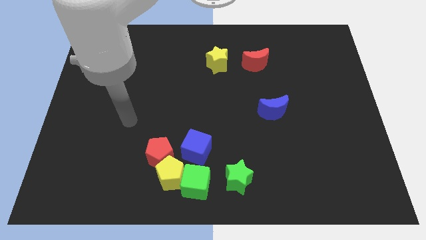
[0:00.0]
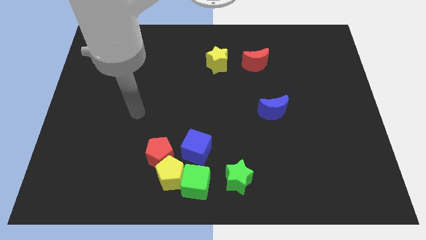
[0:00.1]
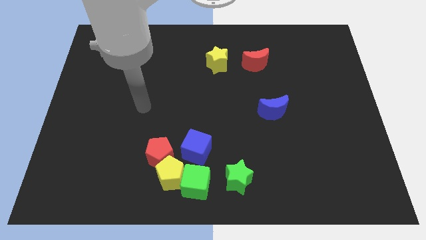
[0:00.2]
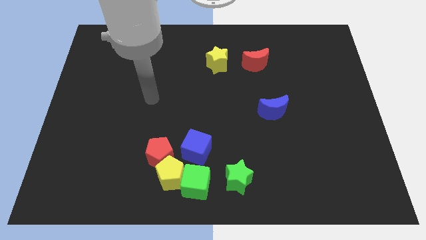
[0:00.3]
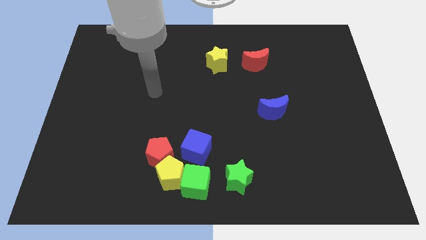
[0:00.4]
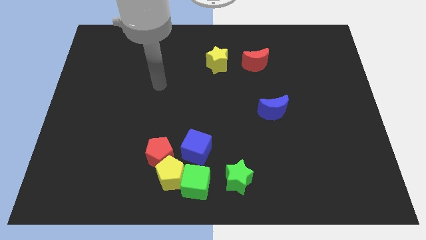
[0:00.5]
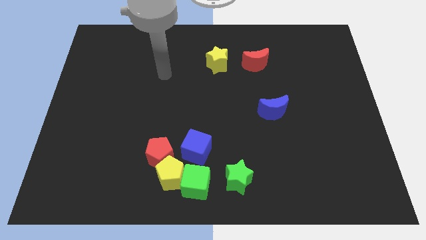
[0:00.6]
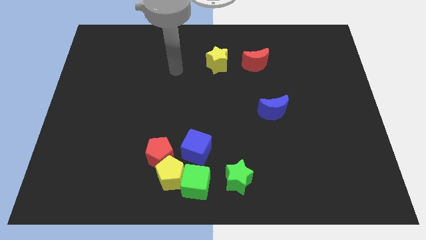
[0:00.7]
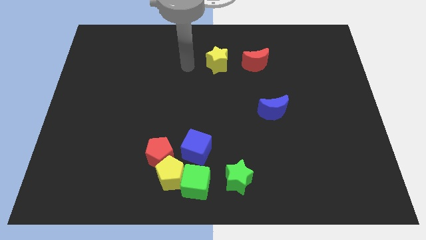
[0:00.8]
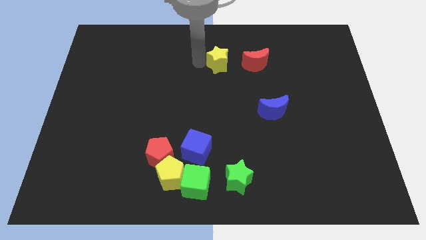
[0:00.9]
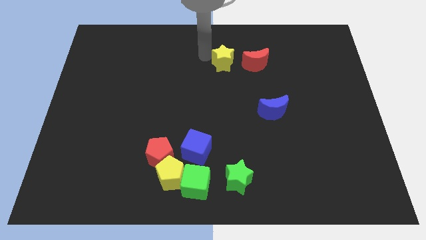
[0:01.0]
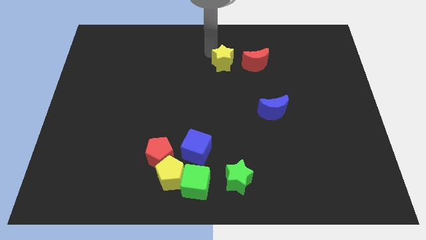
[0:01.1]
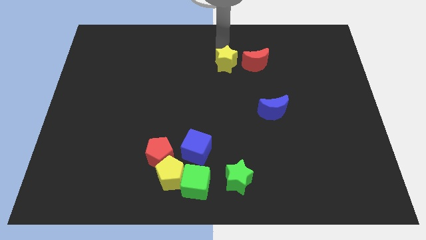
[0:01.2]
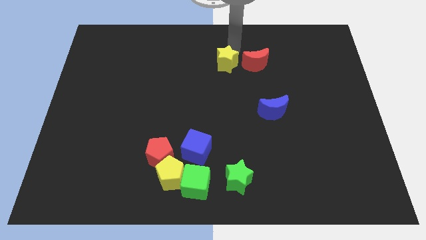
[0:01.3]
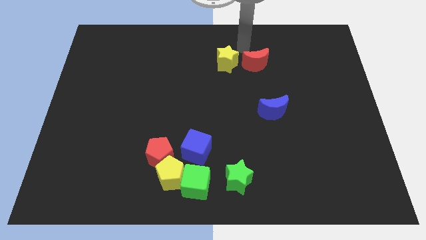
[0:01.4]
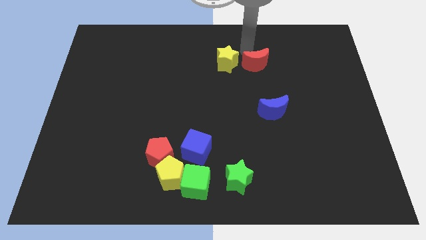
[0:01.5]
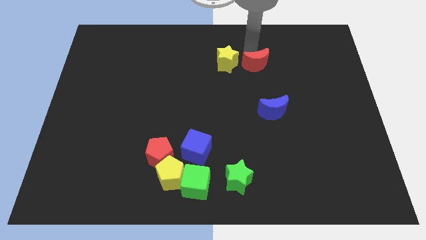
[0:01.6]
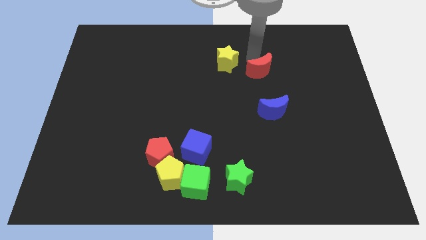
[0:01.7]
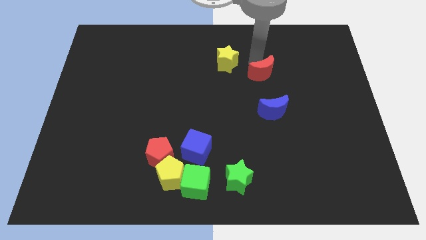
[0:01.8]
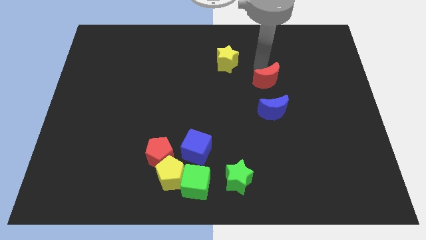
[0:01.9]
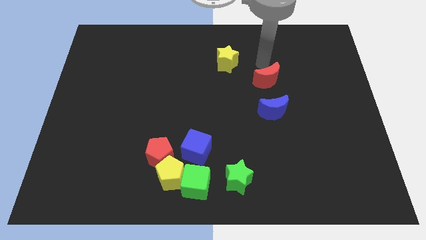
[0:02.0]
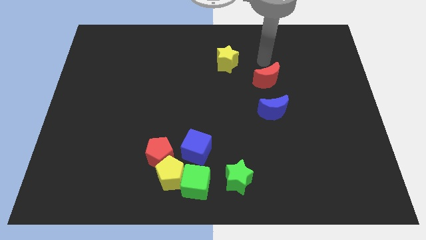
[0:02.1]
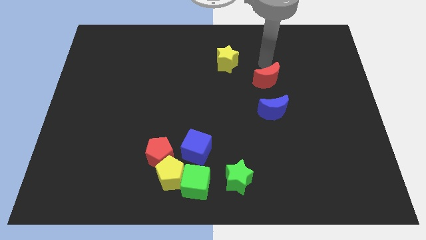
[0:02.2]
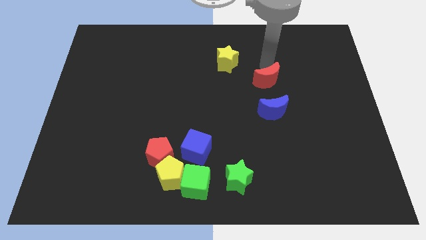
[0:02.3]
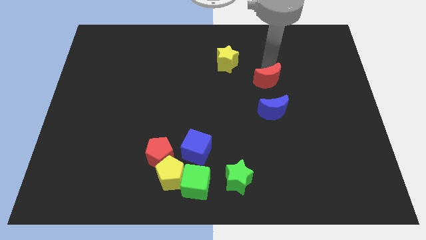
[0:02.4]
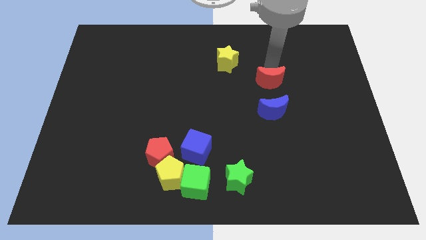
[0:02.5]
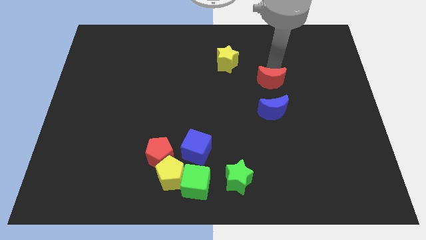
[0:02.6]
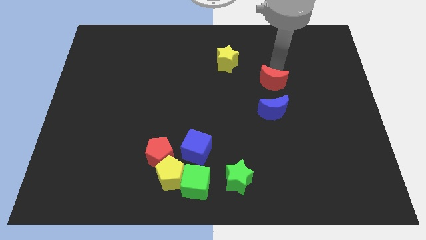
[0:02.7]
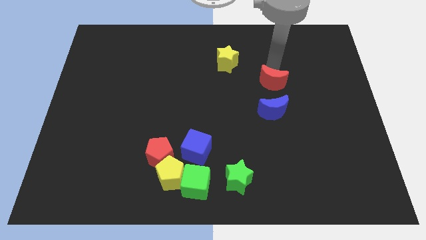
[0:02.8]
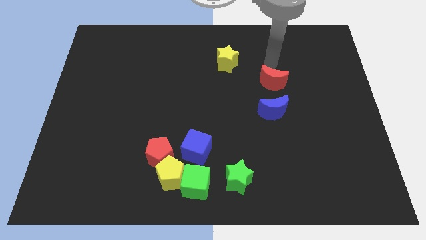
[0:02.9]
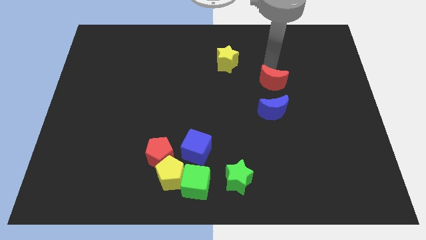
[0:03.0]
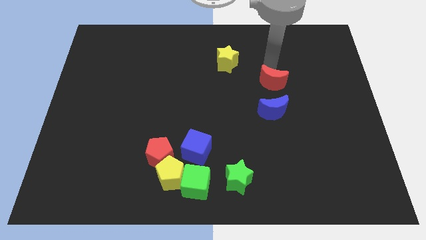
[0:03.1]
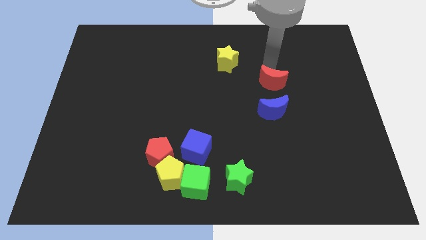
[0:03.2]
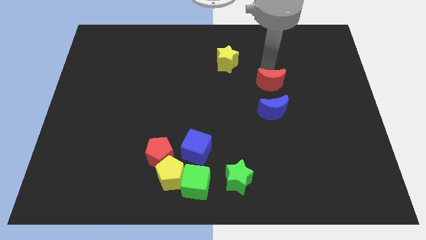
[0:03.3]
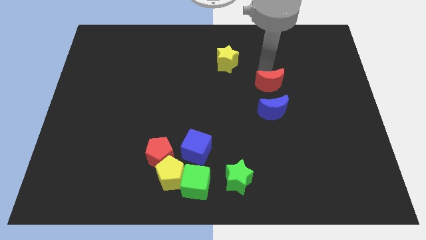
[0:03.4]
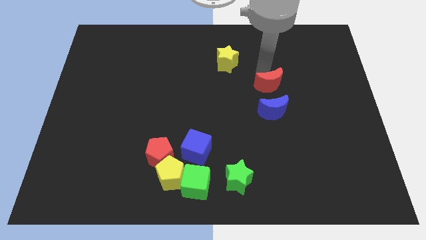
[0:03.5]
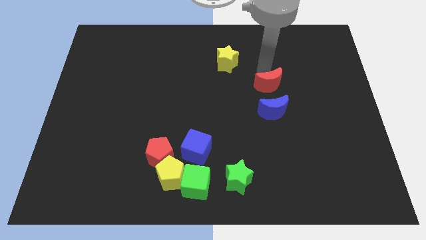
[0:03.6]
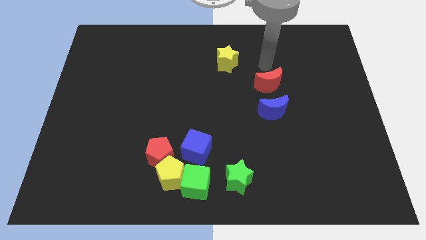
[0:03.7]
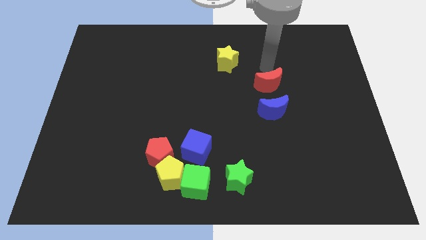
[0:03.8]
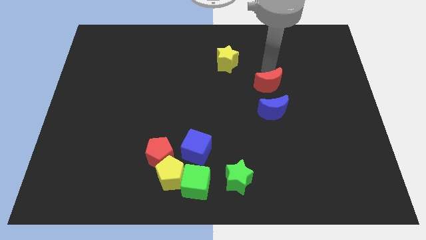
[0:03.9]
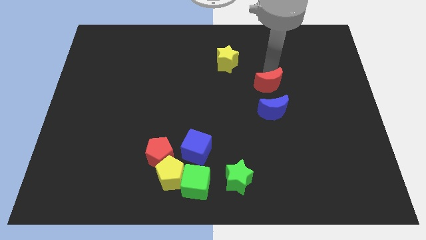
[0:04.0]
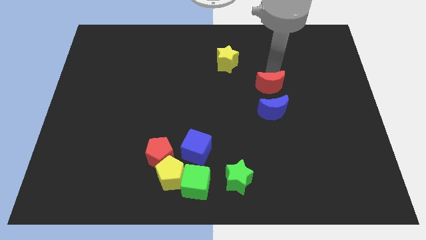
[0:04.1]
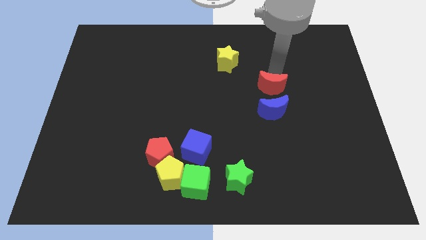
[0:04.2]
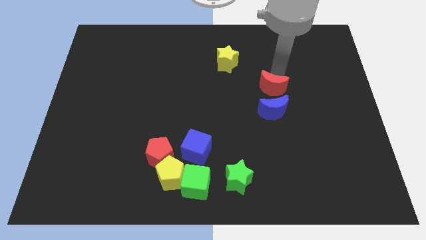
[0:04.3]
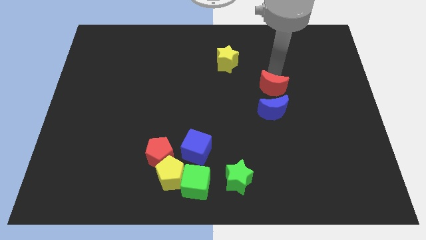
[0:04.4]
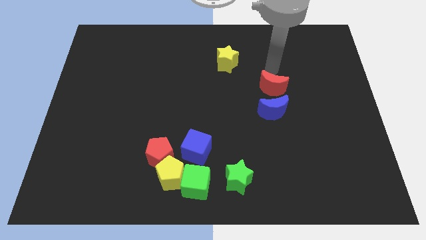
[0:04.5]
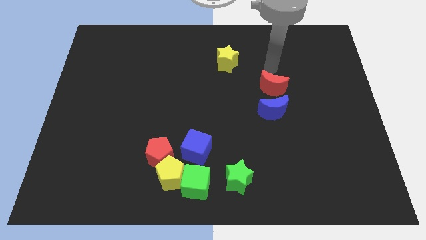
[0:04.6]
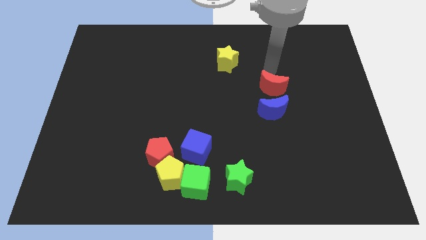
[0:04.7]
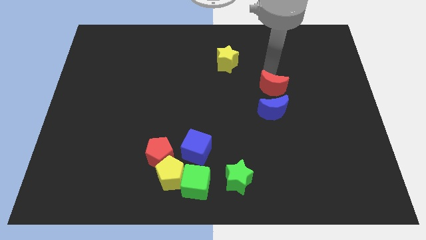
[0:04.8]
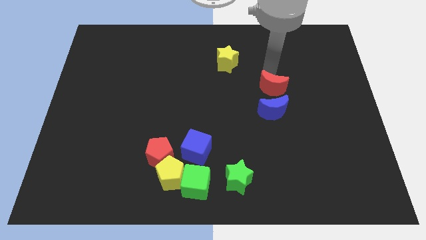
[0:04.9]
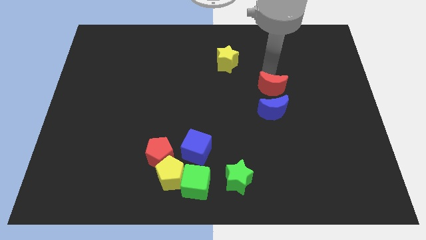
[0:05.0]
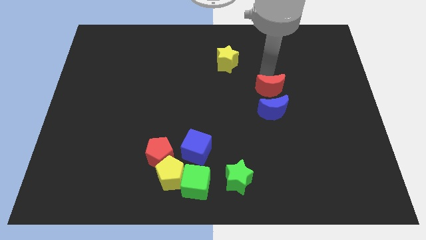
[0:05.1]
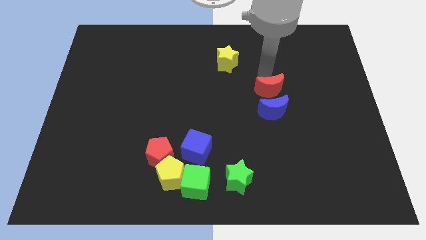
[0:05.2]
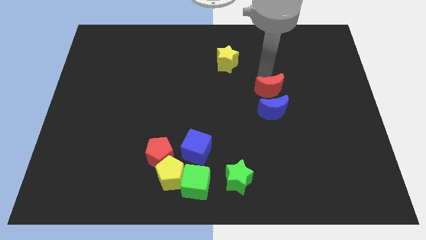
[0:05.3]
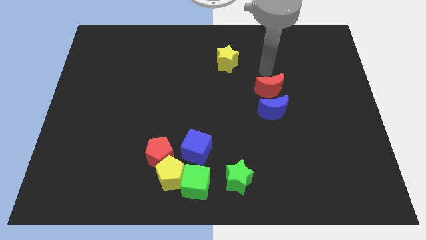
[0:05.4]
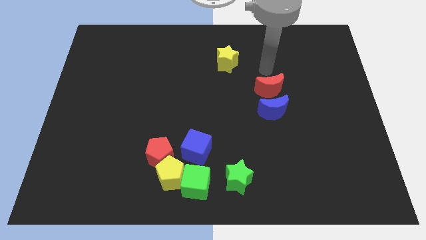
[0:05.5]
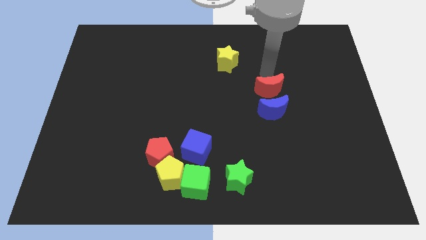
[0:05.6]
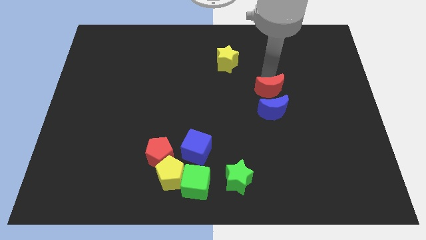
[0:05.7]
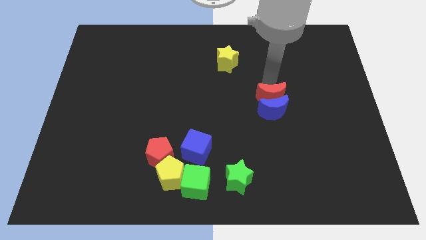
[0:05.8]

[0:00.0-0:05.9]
put the red moon to the blue moon
